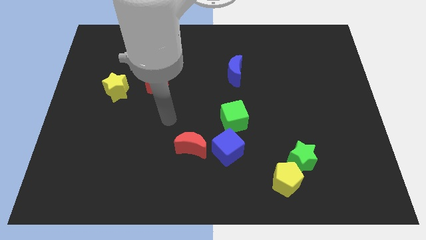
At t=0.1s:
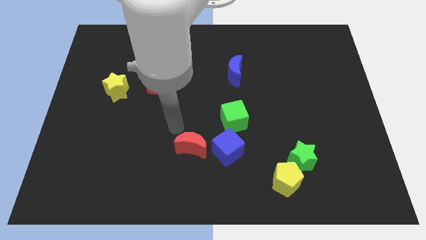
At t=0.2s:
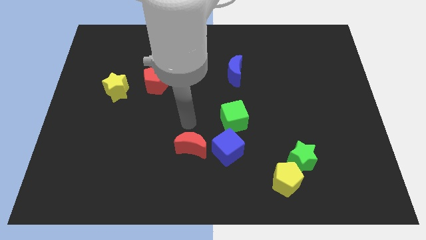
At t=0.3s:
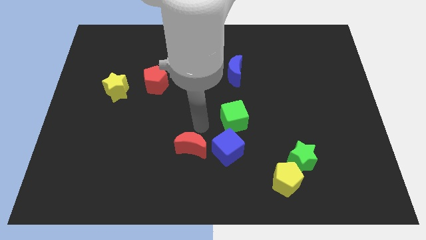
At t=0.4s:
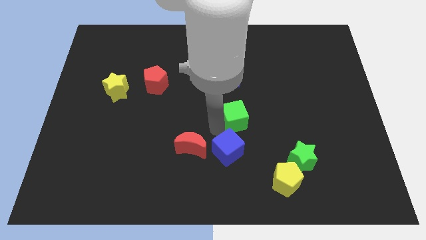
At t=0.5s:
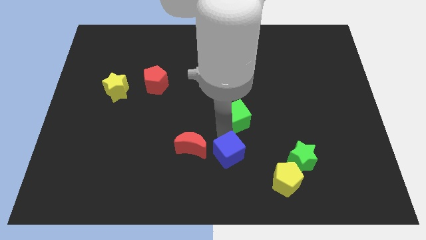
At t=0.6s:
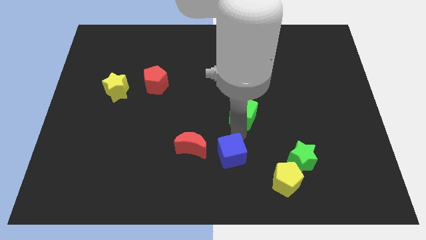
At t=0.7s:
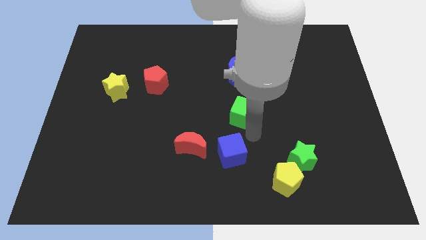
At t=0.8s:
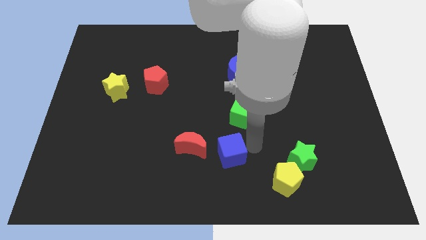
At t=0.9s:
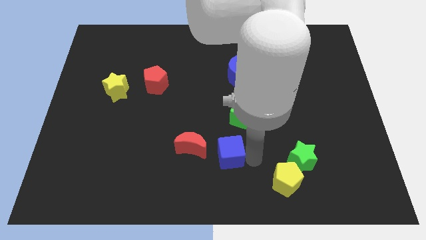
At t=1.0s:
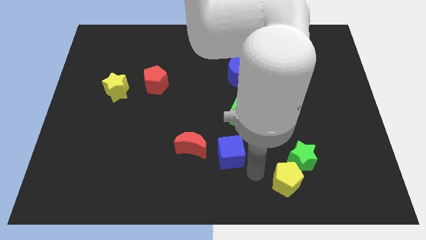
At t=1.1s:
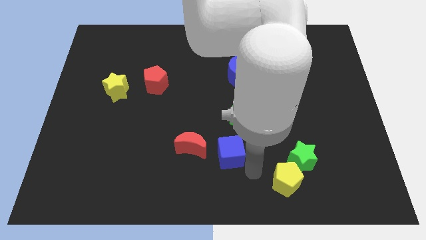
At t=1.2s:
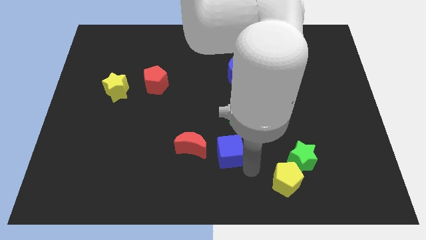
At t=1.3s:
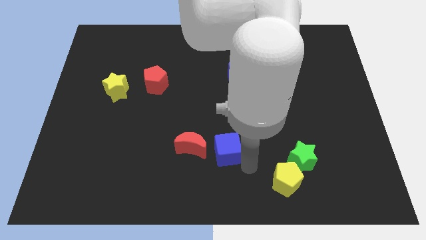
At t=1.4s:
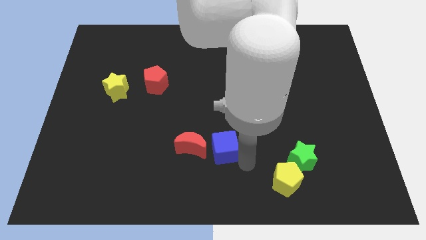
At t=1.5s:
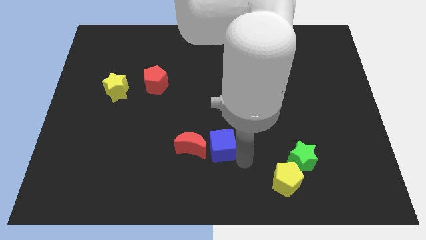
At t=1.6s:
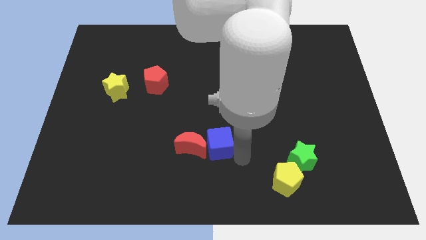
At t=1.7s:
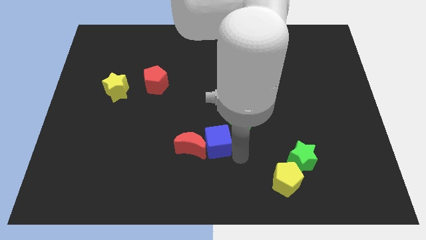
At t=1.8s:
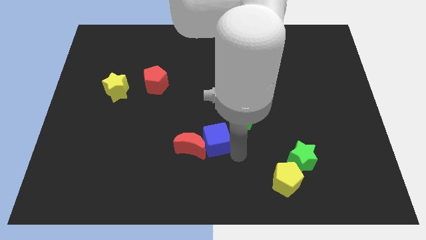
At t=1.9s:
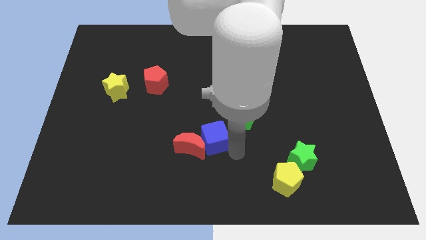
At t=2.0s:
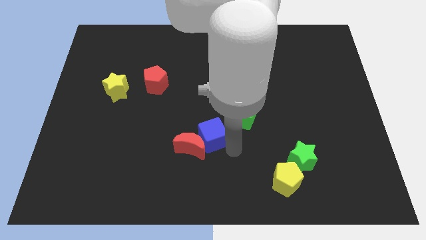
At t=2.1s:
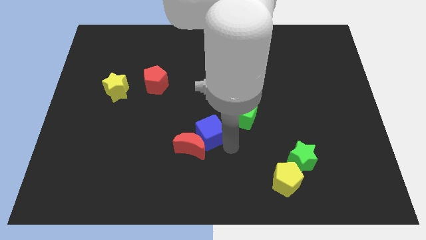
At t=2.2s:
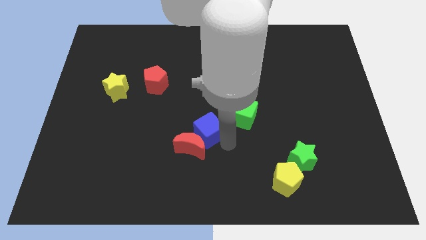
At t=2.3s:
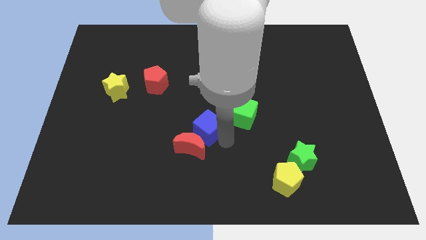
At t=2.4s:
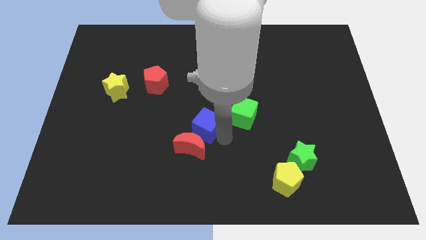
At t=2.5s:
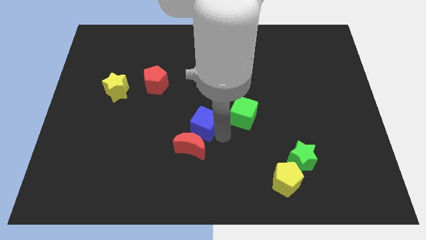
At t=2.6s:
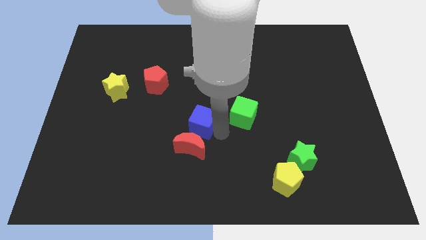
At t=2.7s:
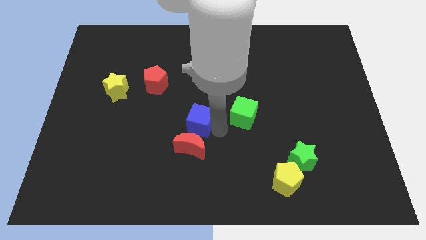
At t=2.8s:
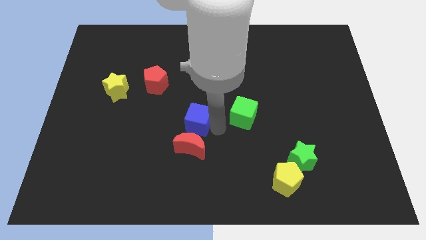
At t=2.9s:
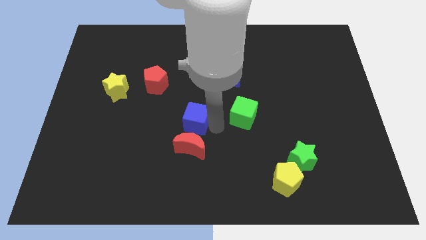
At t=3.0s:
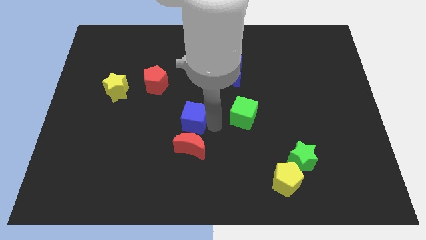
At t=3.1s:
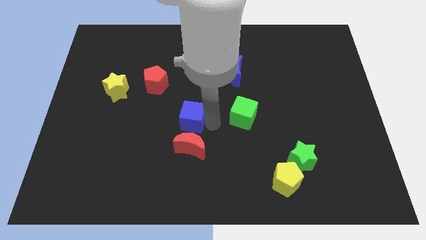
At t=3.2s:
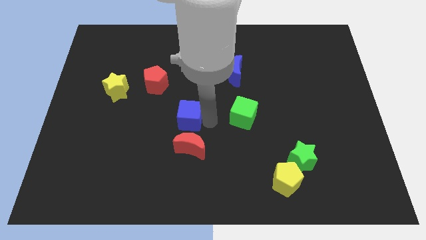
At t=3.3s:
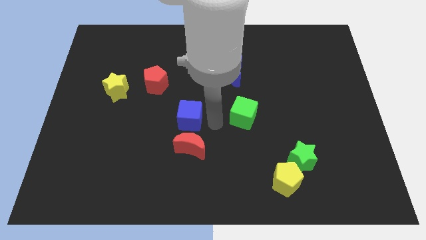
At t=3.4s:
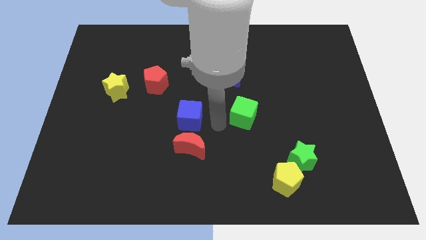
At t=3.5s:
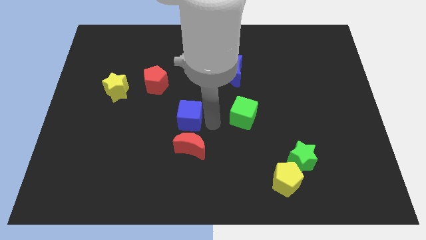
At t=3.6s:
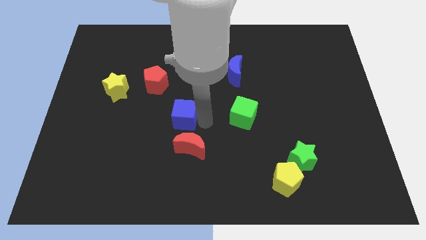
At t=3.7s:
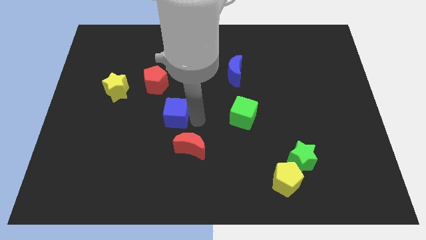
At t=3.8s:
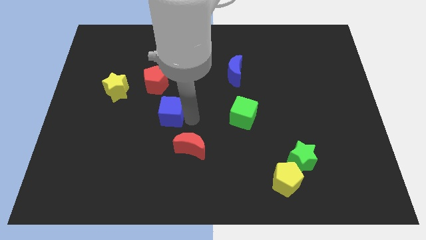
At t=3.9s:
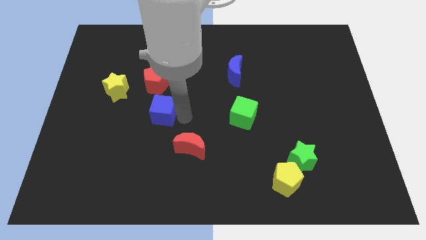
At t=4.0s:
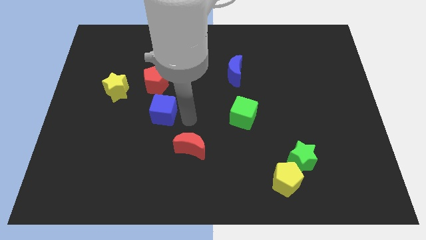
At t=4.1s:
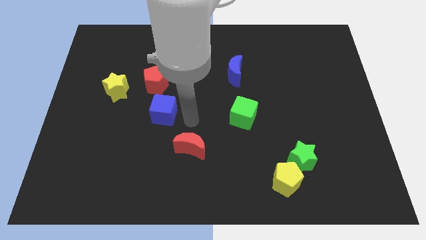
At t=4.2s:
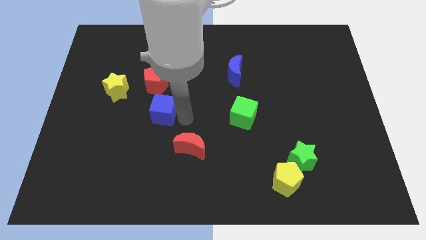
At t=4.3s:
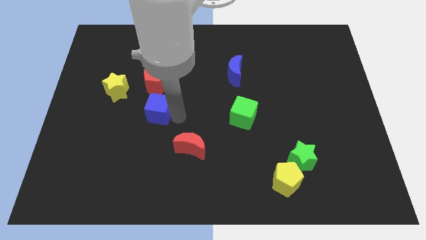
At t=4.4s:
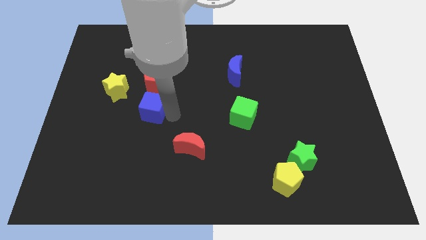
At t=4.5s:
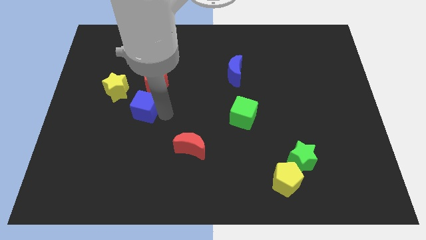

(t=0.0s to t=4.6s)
put the blue cube to the bottom left of the red pentagon

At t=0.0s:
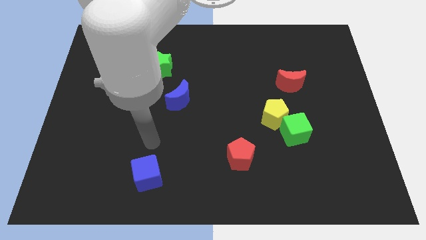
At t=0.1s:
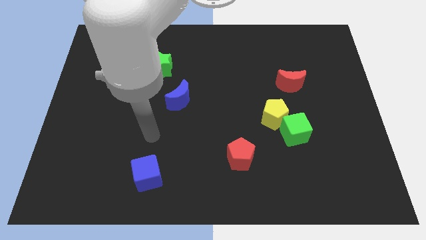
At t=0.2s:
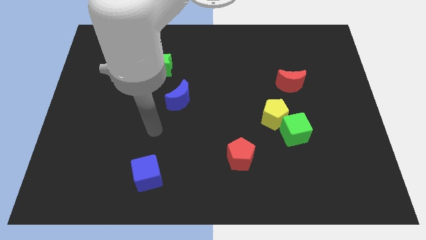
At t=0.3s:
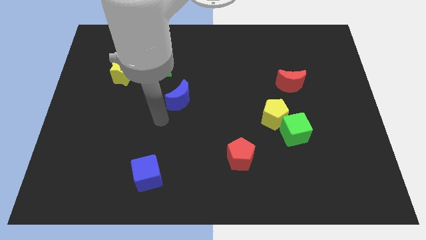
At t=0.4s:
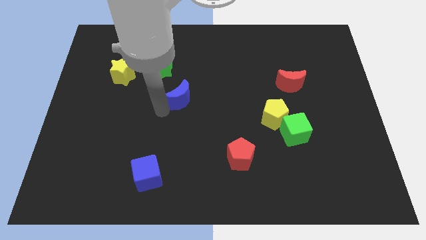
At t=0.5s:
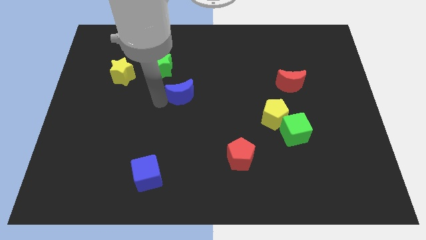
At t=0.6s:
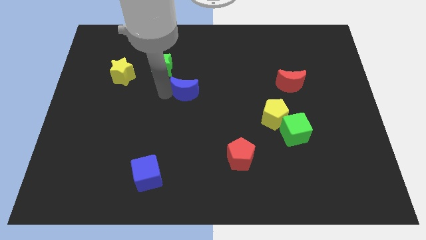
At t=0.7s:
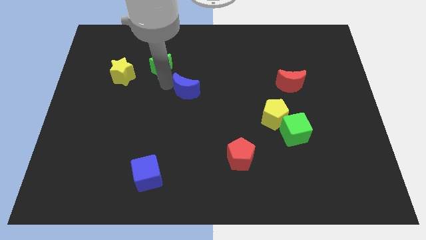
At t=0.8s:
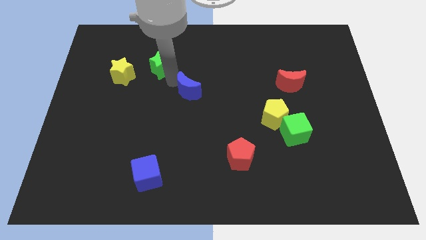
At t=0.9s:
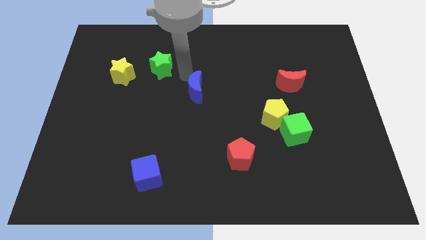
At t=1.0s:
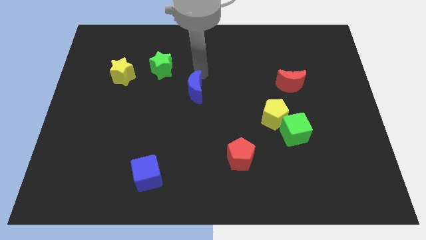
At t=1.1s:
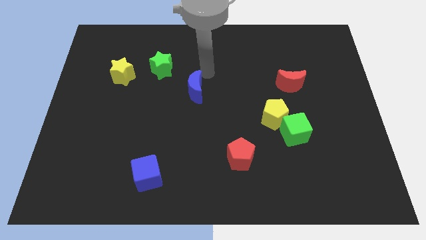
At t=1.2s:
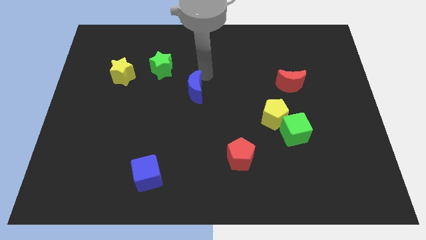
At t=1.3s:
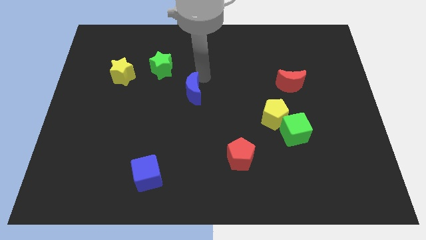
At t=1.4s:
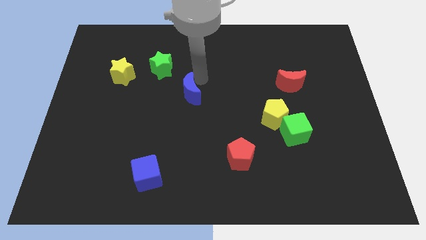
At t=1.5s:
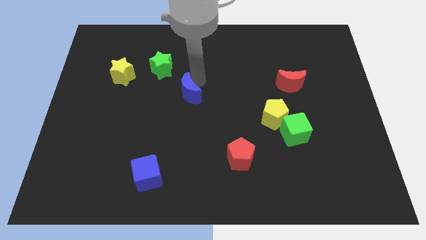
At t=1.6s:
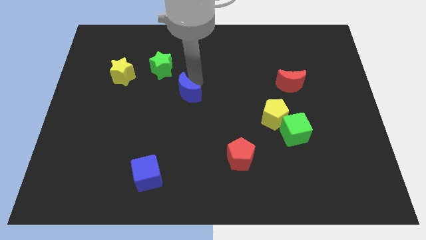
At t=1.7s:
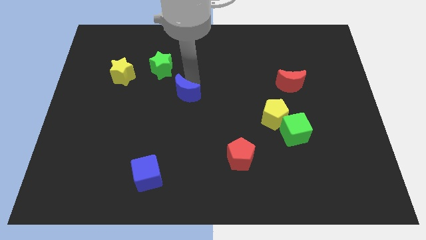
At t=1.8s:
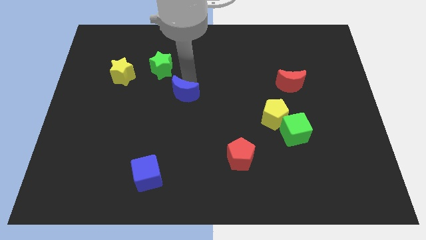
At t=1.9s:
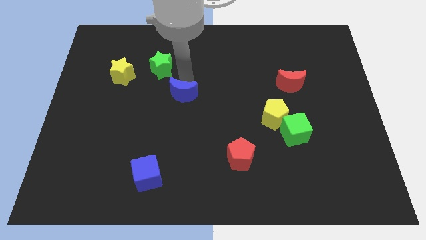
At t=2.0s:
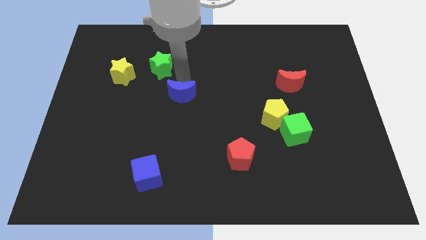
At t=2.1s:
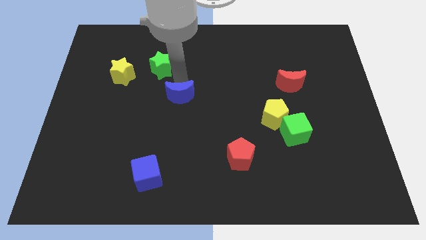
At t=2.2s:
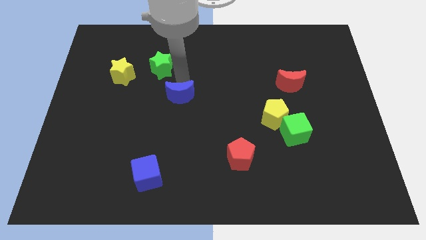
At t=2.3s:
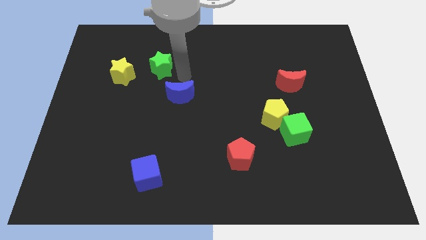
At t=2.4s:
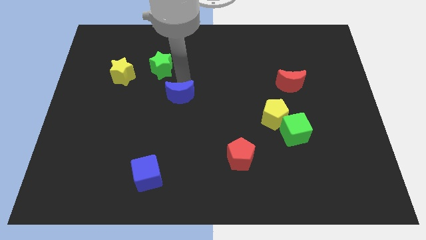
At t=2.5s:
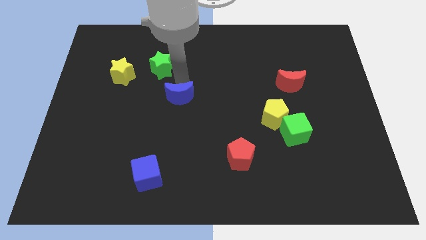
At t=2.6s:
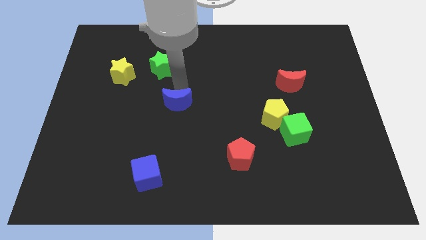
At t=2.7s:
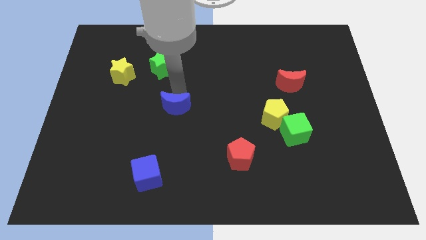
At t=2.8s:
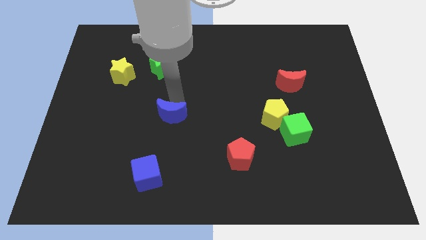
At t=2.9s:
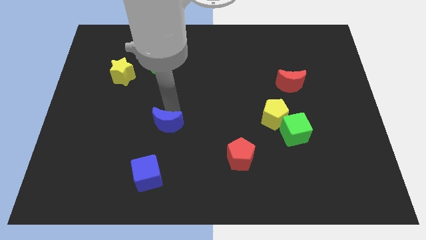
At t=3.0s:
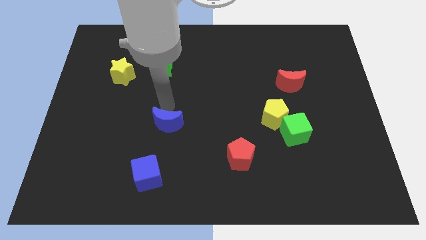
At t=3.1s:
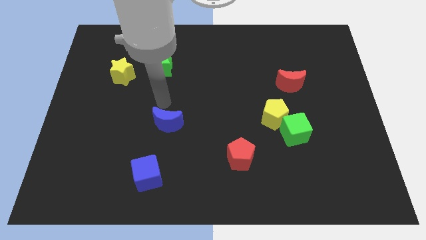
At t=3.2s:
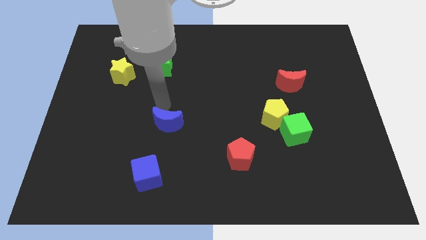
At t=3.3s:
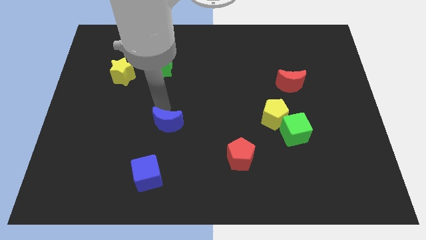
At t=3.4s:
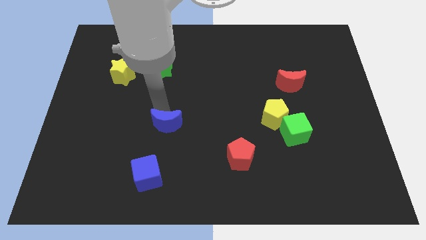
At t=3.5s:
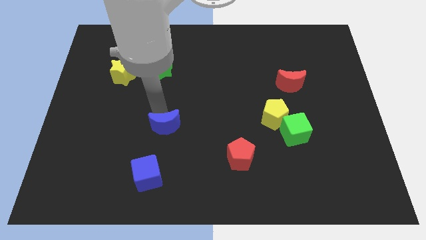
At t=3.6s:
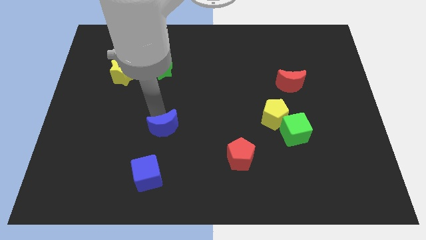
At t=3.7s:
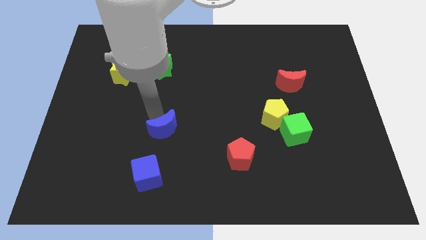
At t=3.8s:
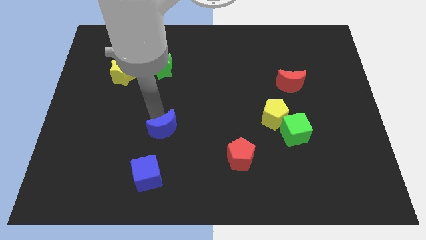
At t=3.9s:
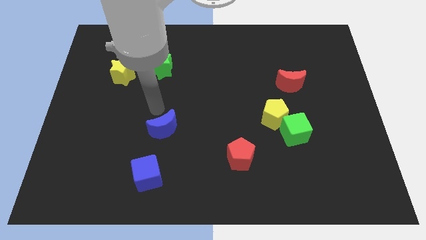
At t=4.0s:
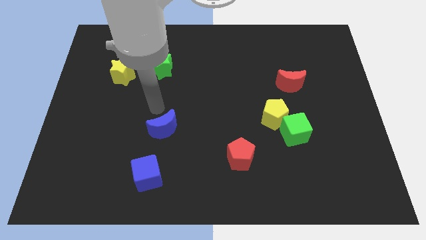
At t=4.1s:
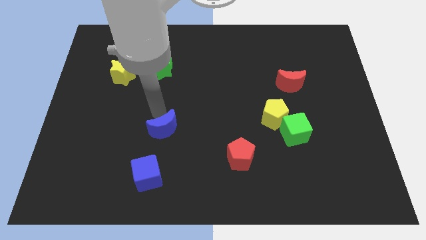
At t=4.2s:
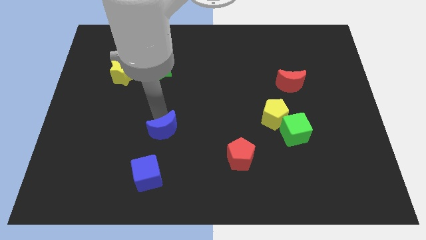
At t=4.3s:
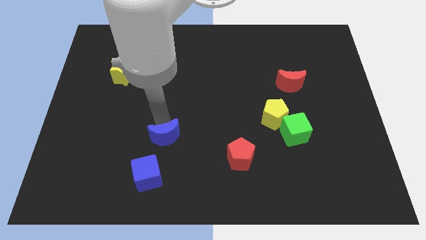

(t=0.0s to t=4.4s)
slide the blue moon to the top right side of the blue cube
